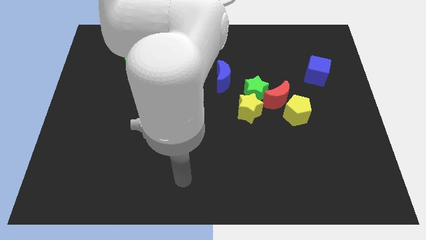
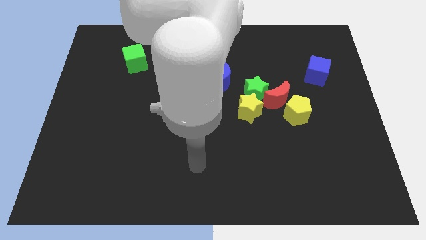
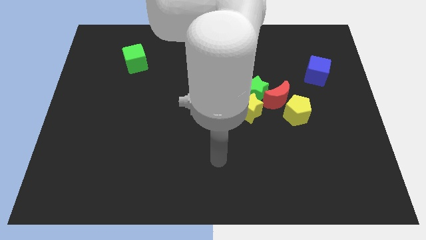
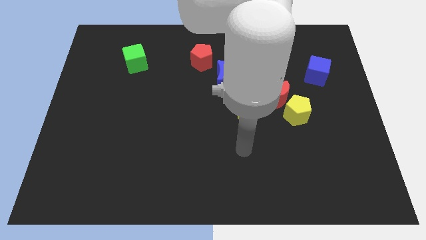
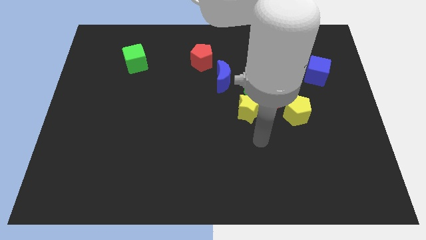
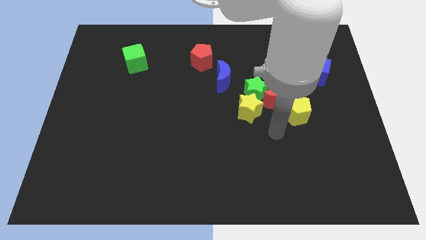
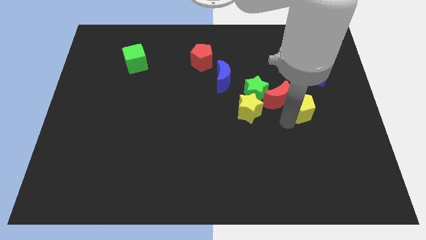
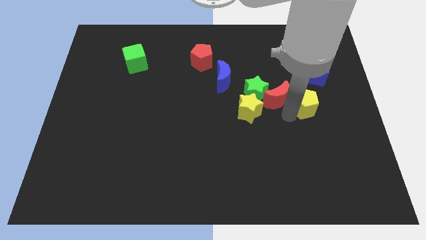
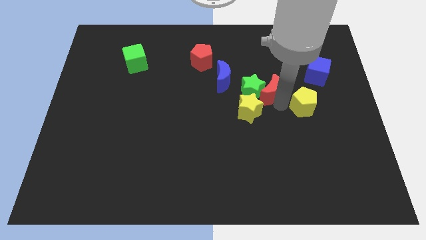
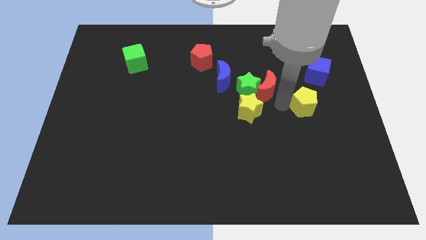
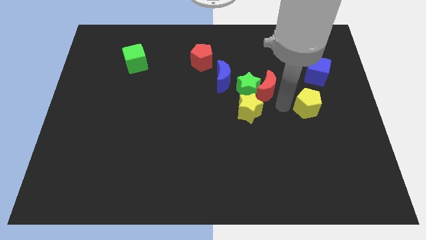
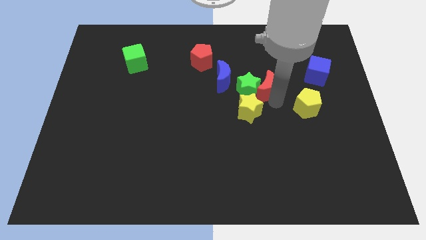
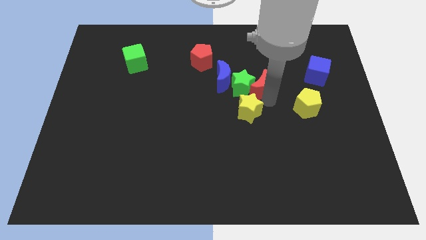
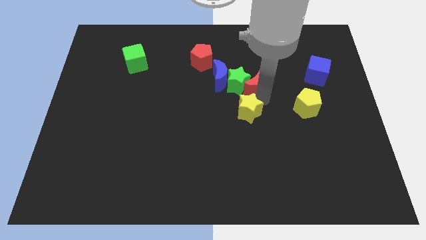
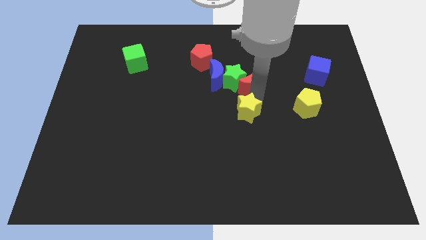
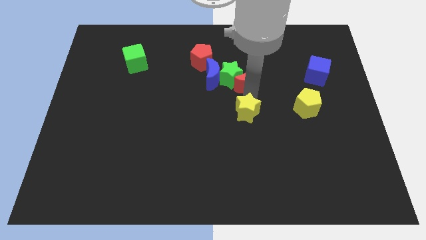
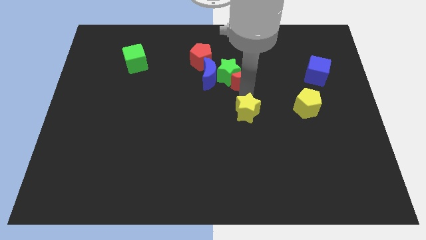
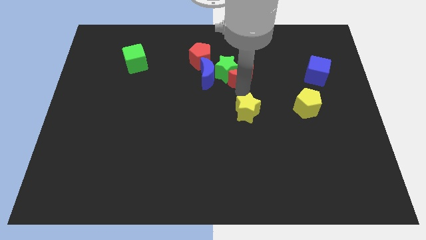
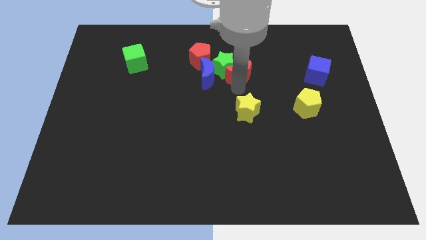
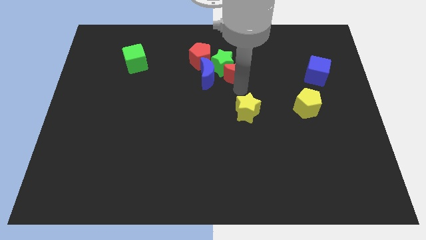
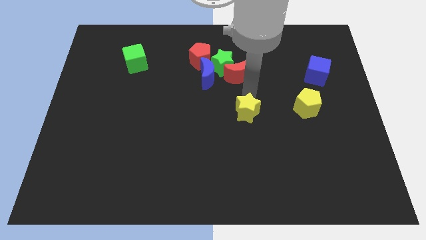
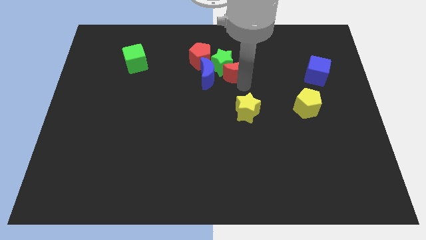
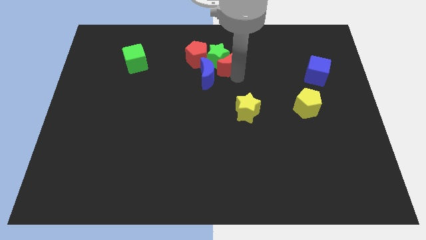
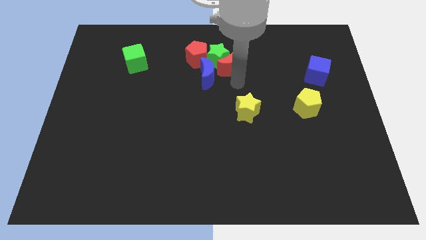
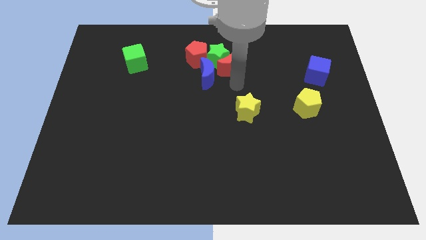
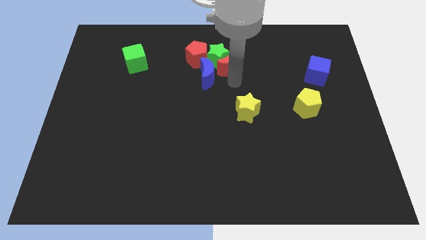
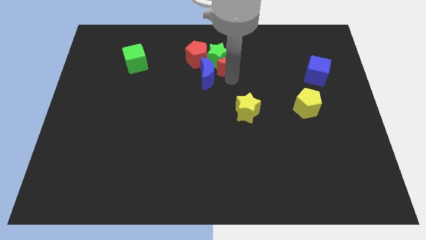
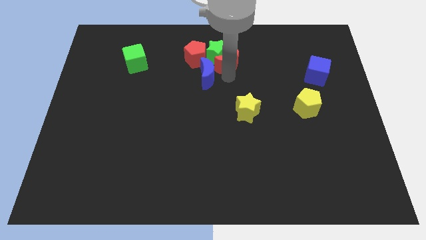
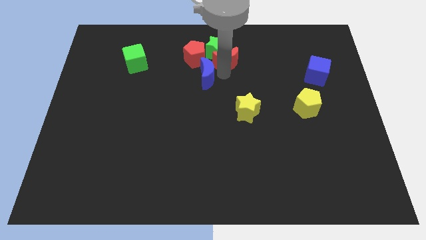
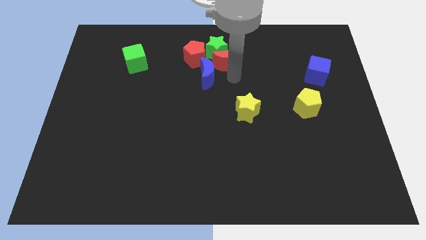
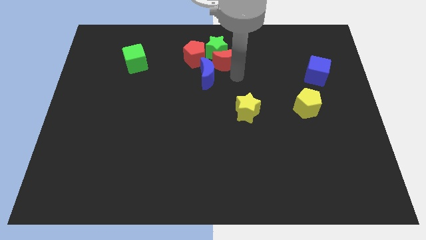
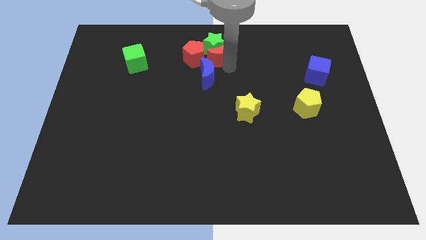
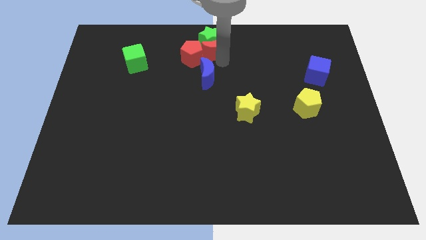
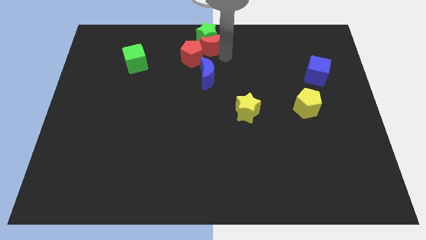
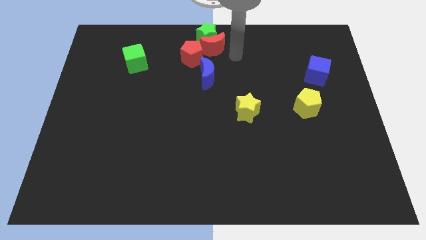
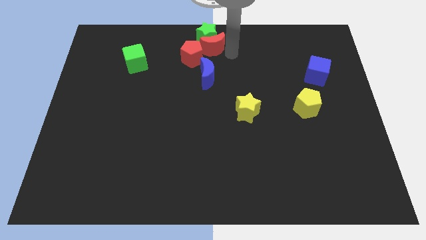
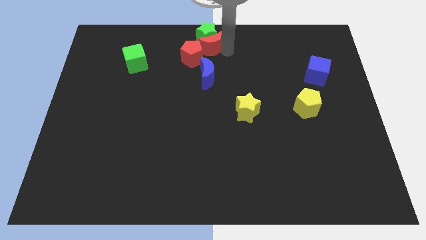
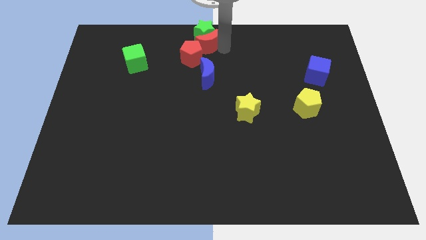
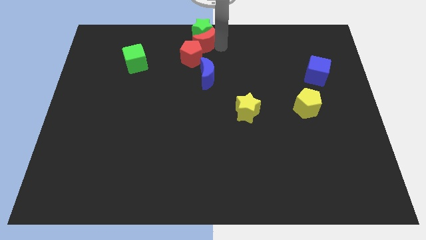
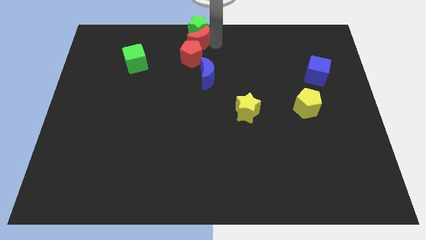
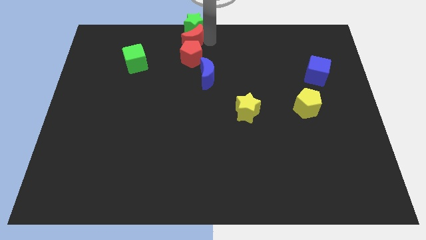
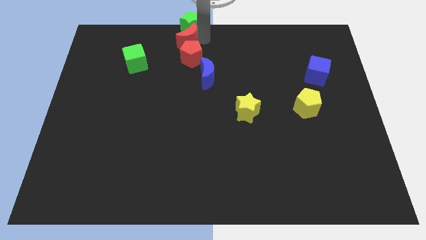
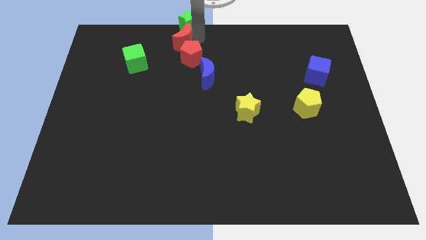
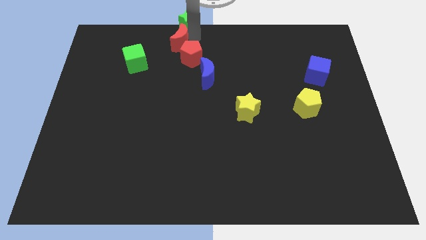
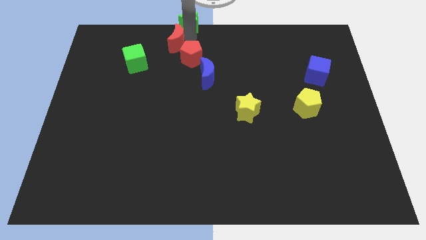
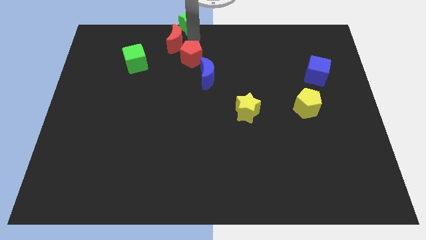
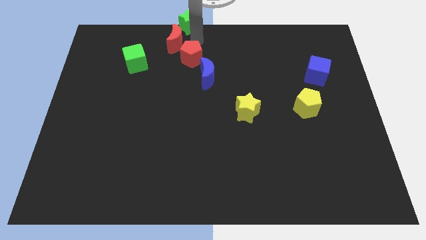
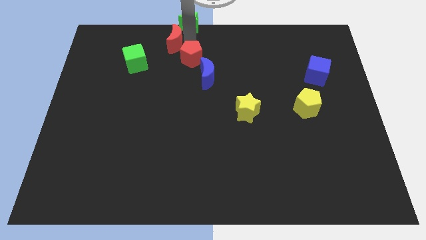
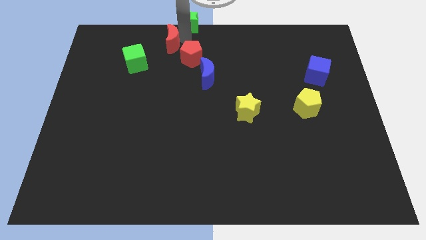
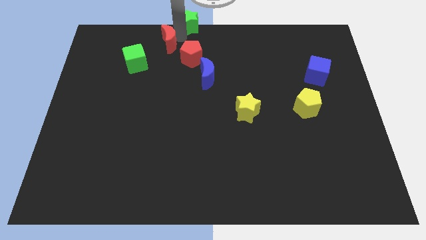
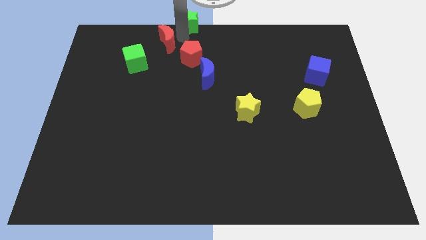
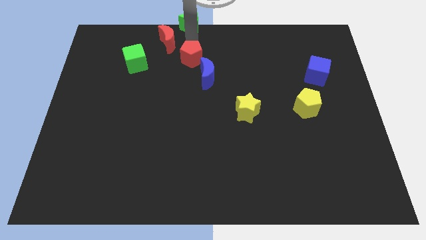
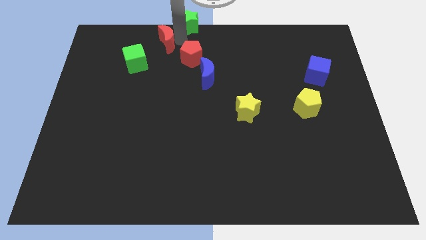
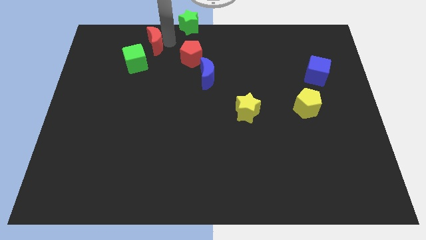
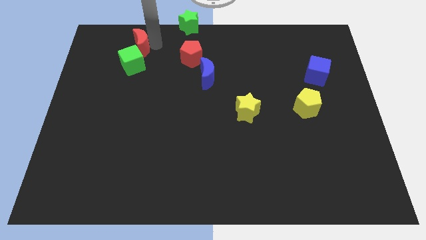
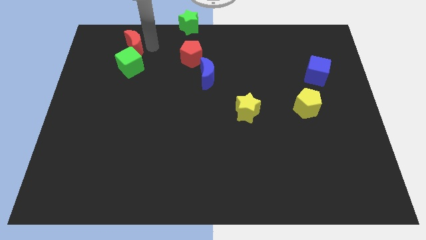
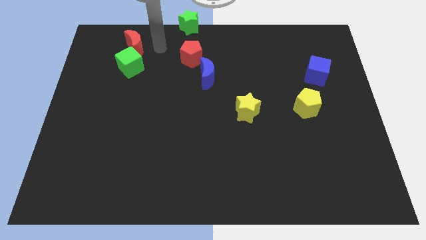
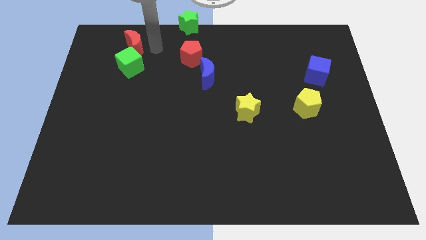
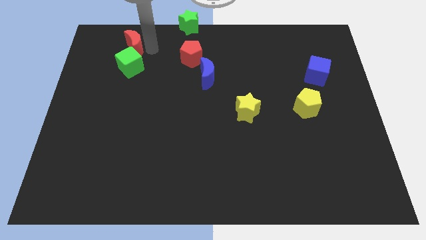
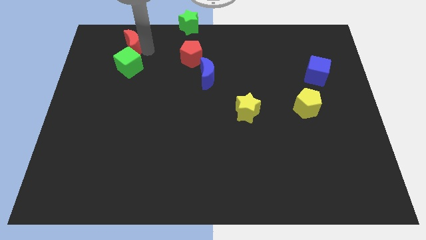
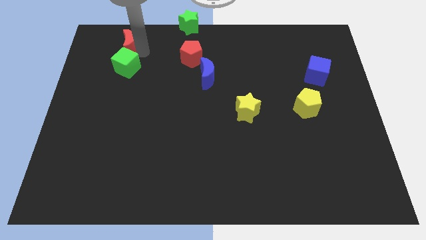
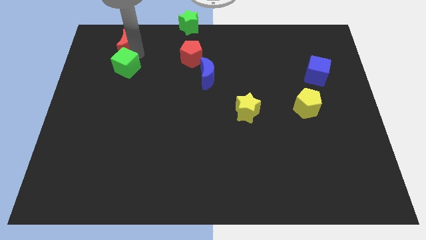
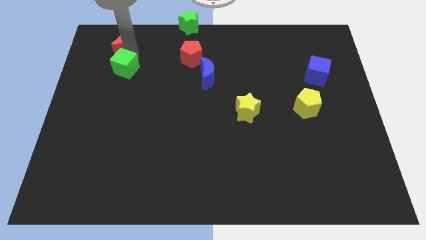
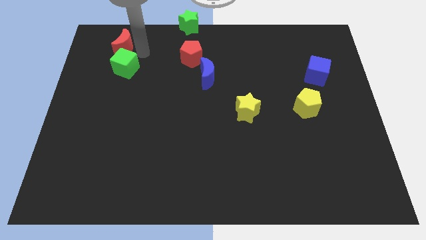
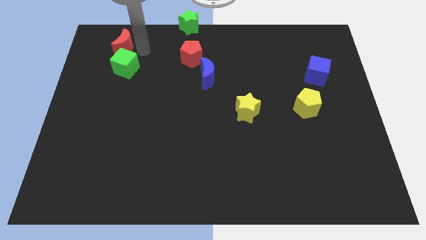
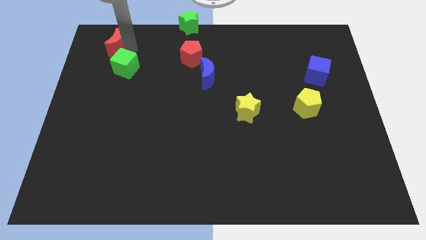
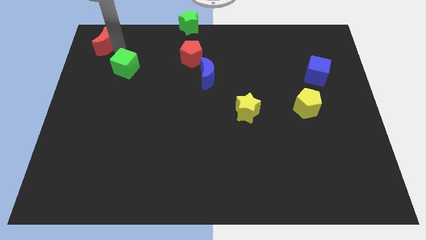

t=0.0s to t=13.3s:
put the red moon to the top left corner
